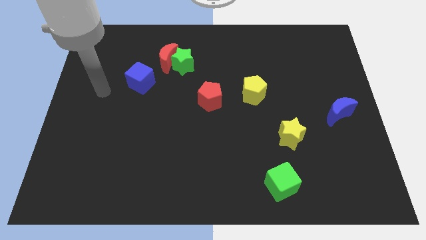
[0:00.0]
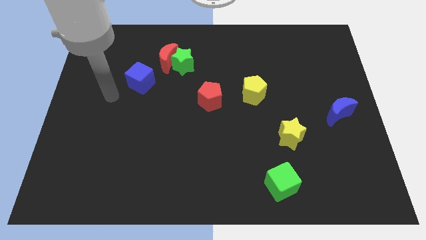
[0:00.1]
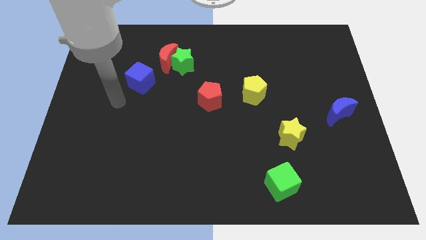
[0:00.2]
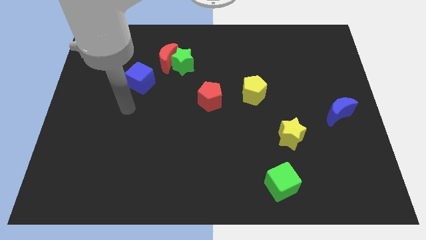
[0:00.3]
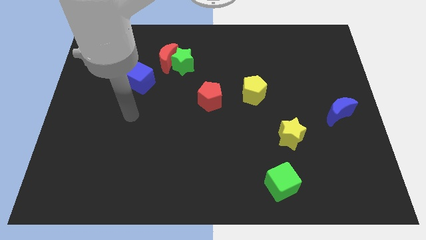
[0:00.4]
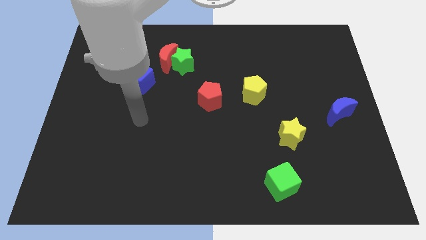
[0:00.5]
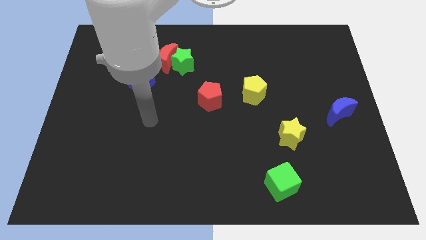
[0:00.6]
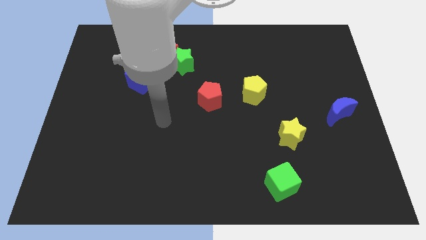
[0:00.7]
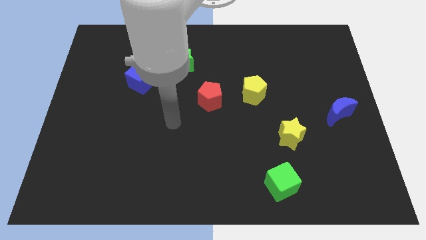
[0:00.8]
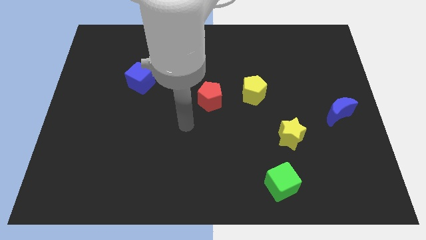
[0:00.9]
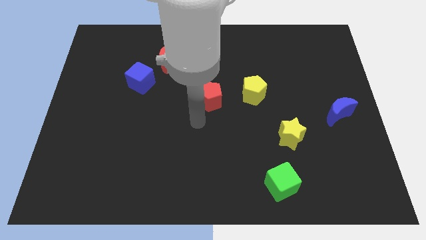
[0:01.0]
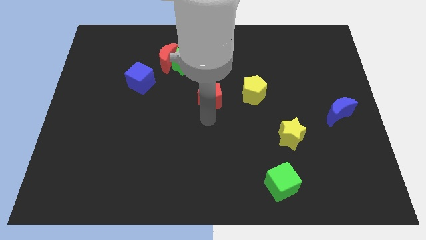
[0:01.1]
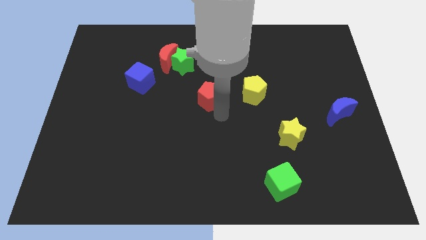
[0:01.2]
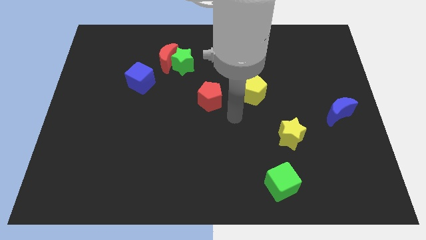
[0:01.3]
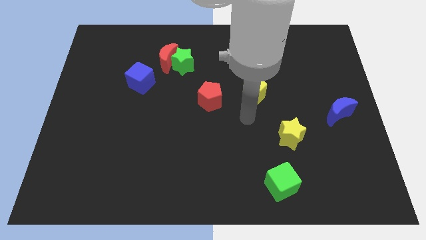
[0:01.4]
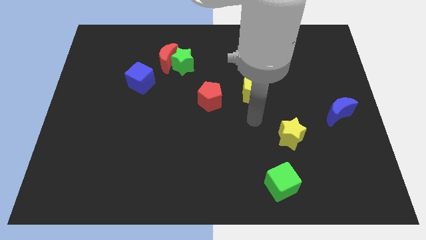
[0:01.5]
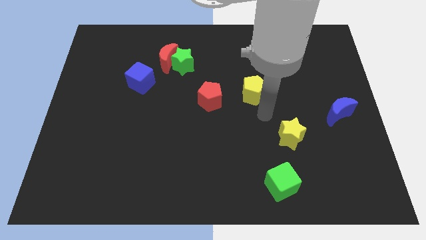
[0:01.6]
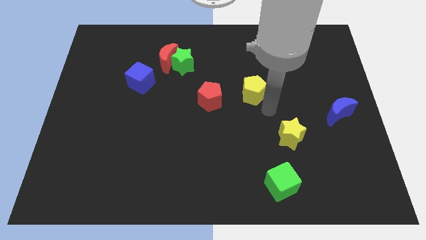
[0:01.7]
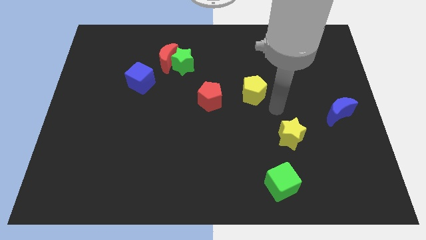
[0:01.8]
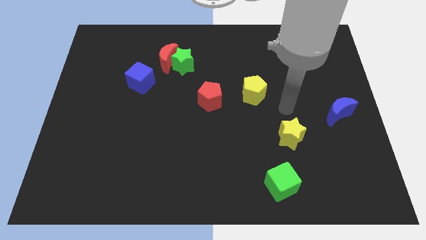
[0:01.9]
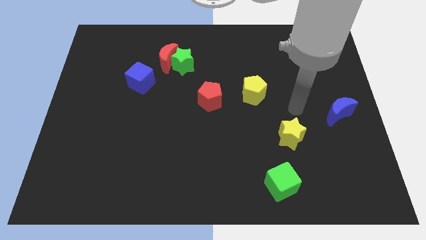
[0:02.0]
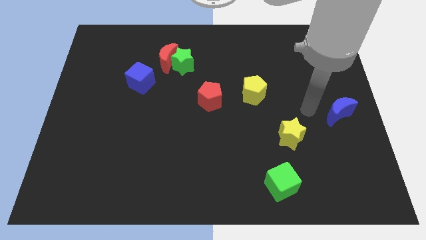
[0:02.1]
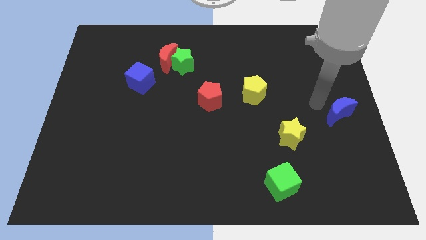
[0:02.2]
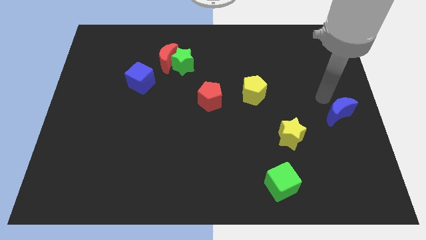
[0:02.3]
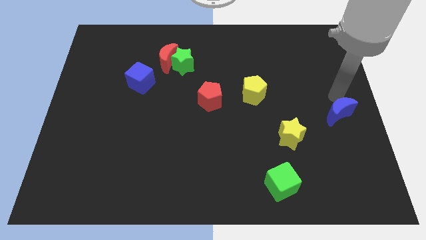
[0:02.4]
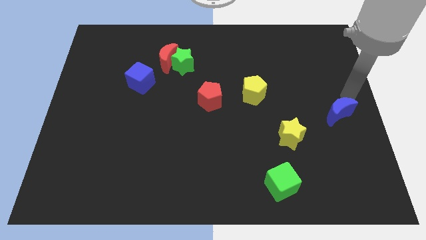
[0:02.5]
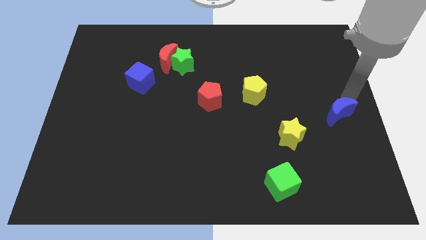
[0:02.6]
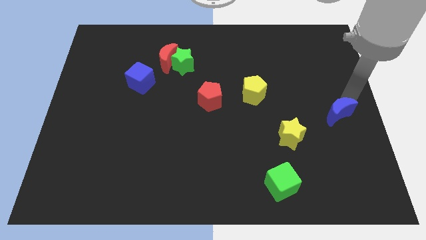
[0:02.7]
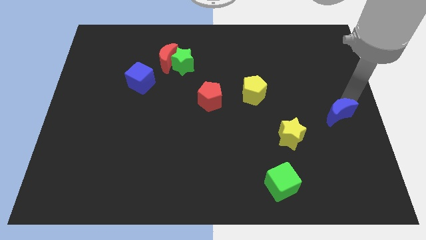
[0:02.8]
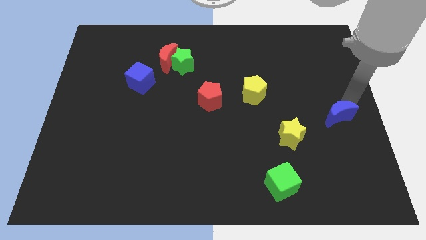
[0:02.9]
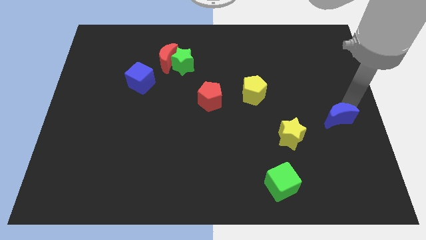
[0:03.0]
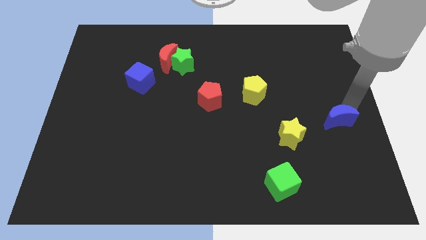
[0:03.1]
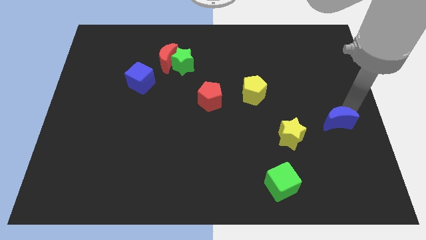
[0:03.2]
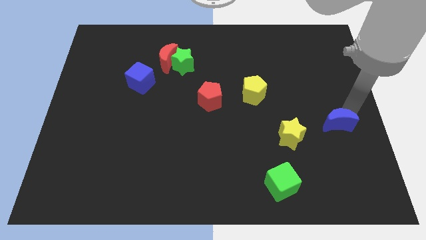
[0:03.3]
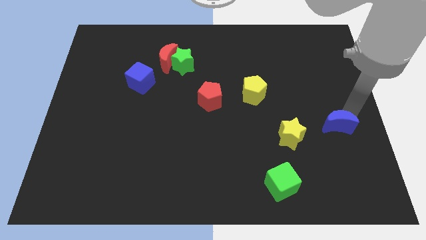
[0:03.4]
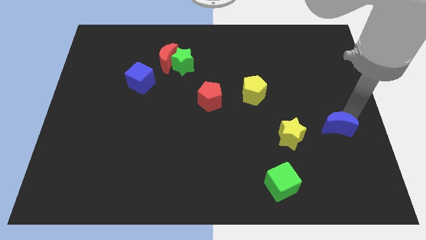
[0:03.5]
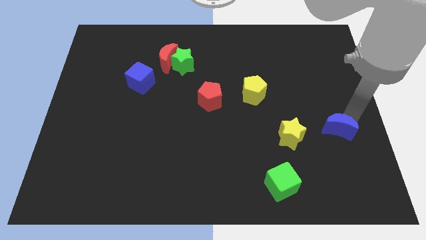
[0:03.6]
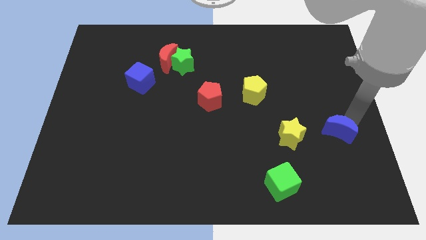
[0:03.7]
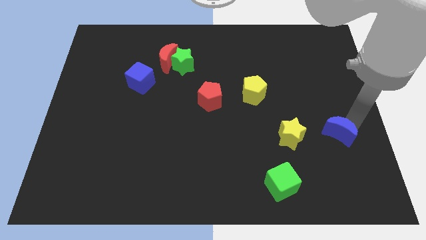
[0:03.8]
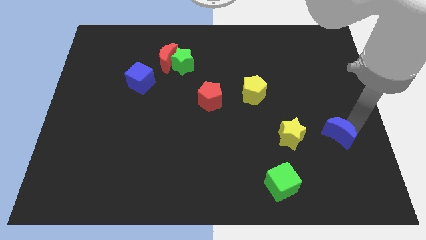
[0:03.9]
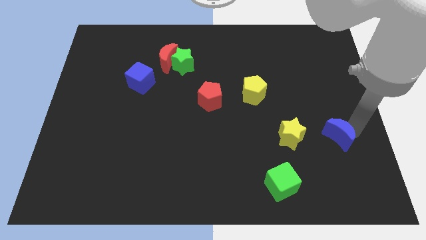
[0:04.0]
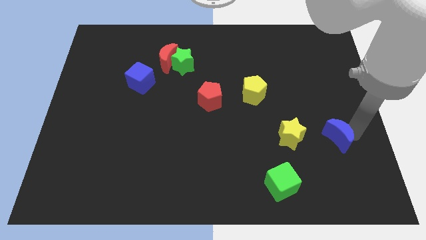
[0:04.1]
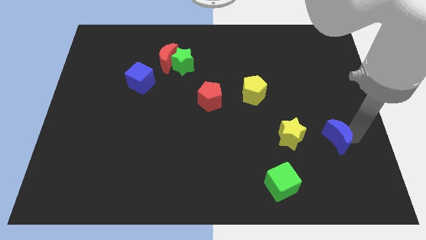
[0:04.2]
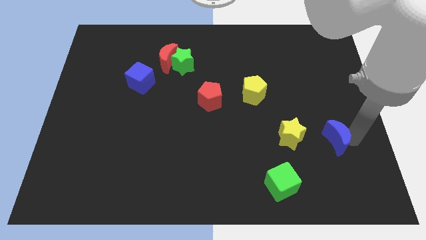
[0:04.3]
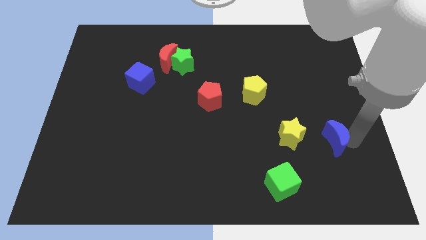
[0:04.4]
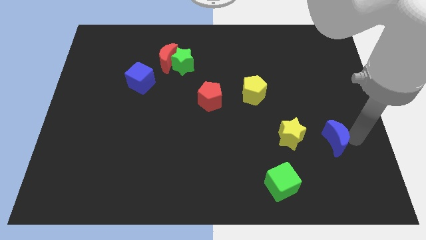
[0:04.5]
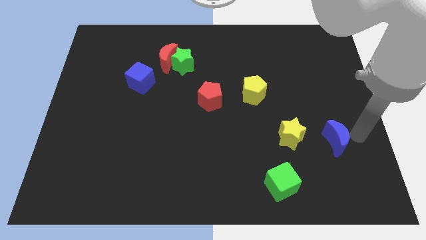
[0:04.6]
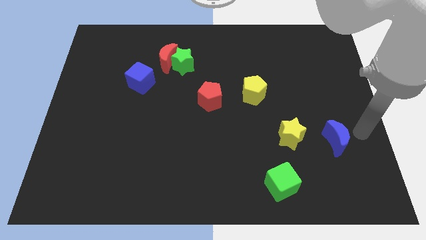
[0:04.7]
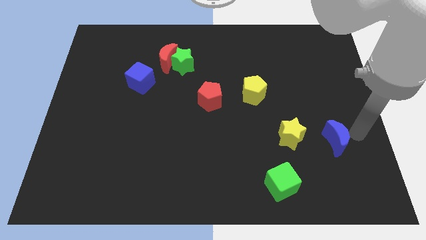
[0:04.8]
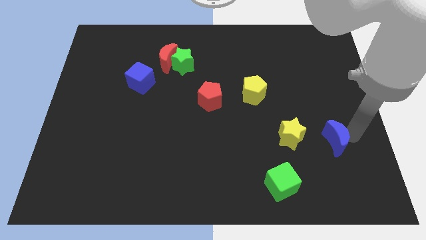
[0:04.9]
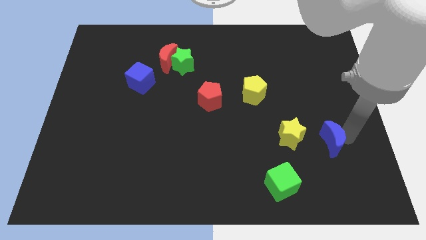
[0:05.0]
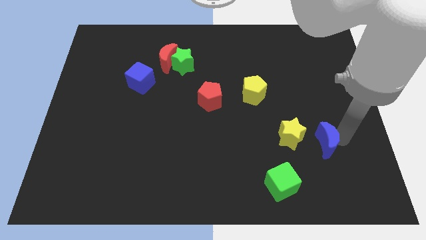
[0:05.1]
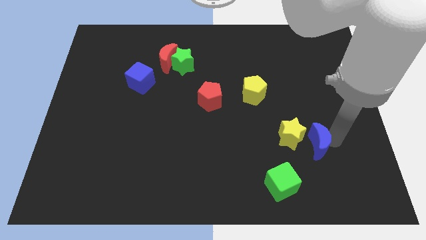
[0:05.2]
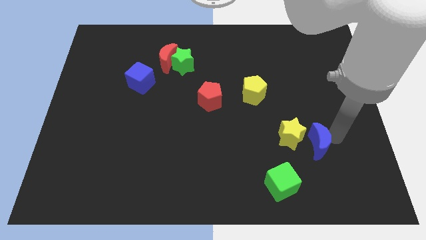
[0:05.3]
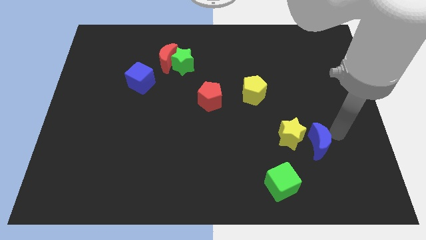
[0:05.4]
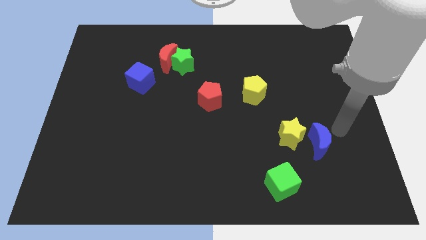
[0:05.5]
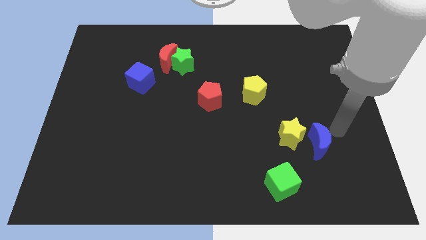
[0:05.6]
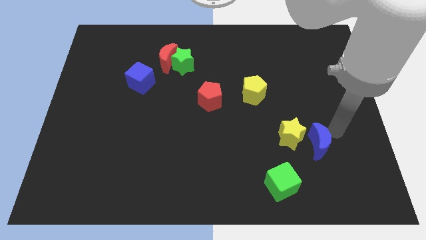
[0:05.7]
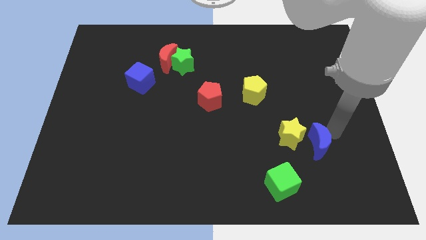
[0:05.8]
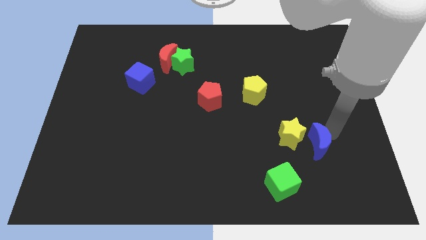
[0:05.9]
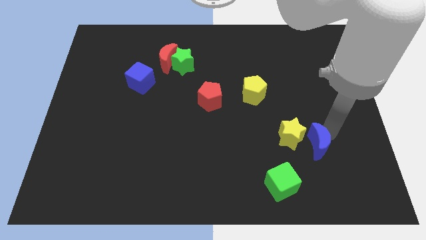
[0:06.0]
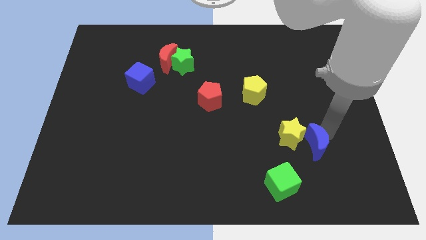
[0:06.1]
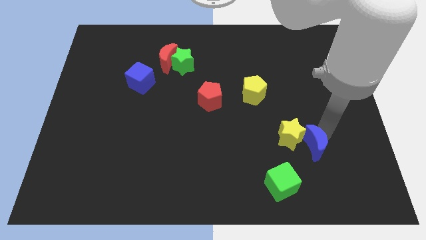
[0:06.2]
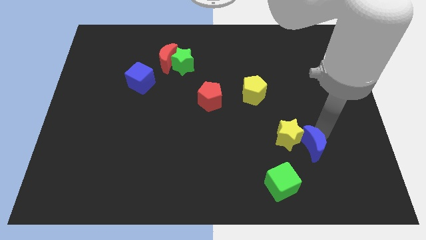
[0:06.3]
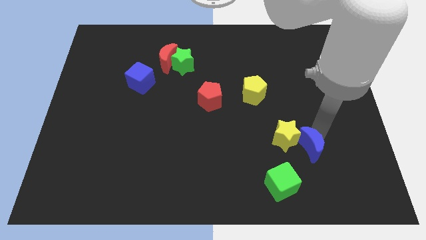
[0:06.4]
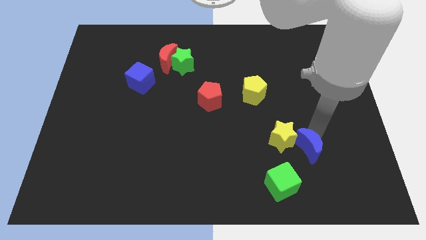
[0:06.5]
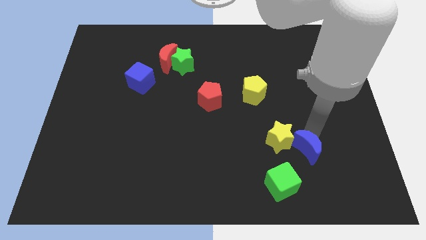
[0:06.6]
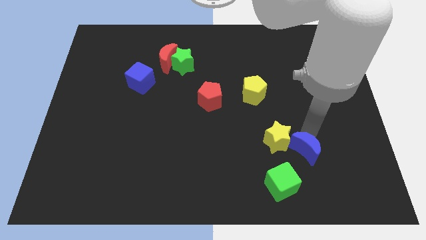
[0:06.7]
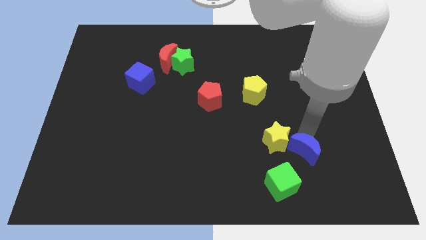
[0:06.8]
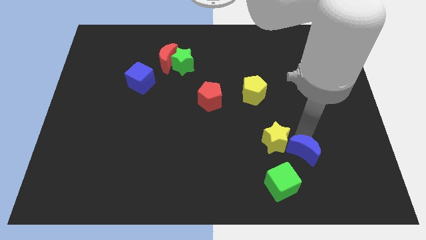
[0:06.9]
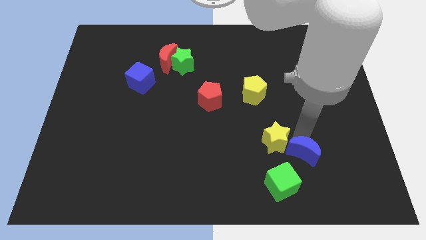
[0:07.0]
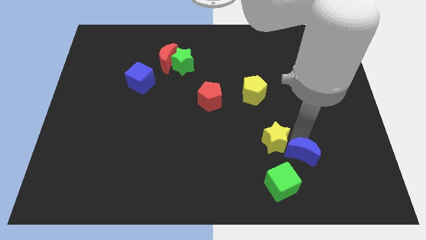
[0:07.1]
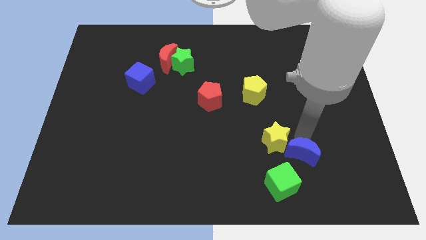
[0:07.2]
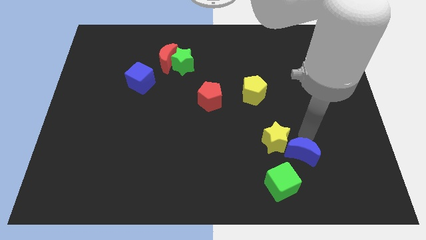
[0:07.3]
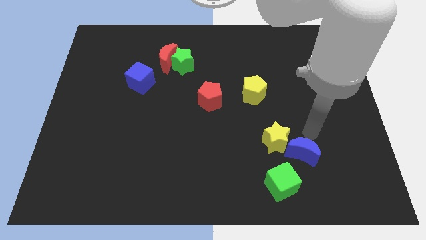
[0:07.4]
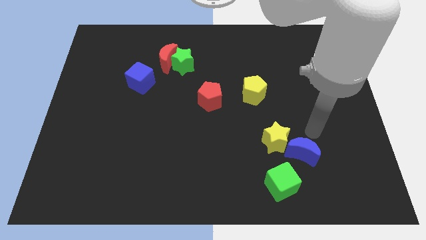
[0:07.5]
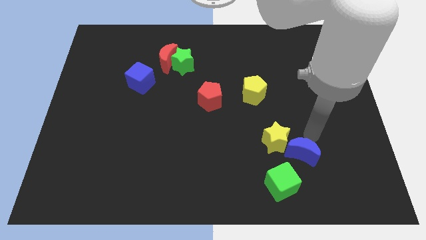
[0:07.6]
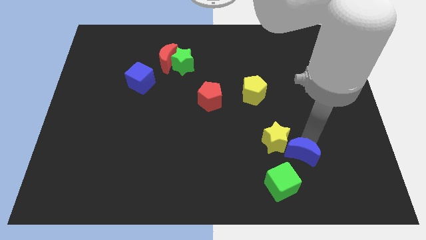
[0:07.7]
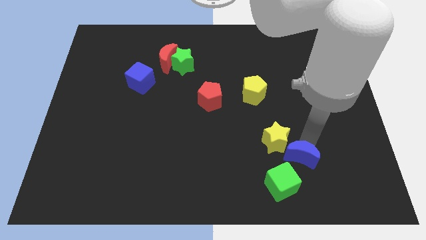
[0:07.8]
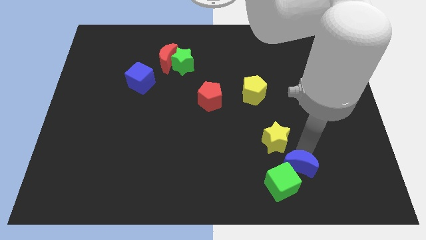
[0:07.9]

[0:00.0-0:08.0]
slide the blue moon next to the green cube
